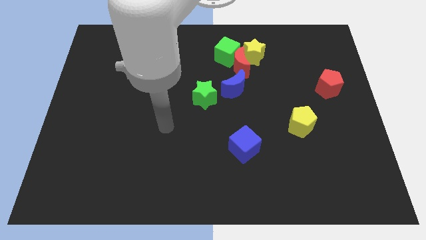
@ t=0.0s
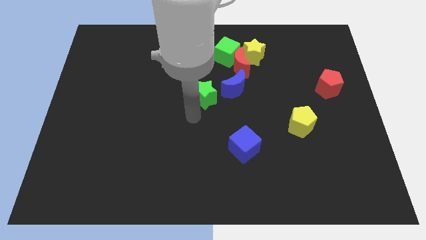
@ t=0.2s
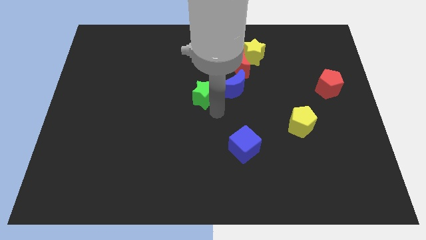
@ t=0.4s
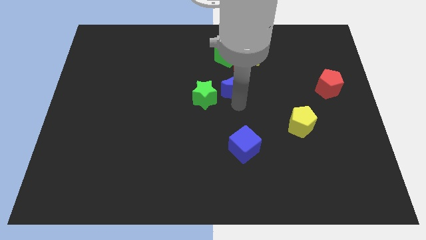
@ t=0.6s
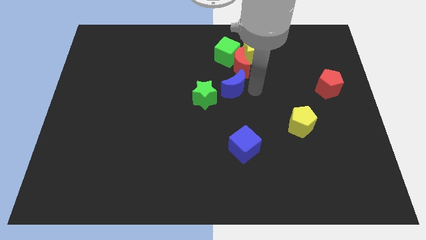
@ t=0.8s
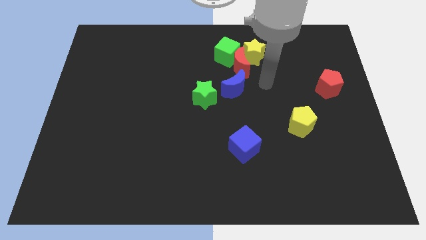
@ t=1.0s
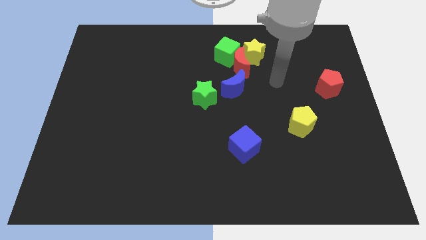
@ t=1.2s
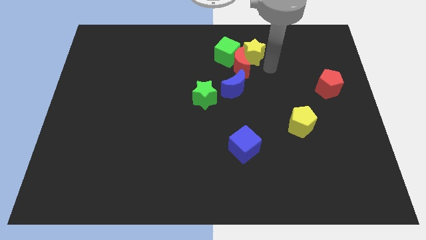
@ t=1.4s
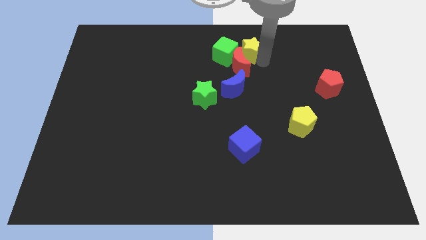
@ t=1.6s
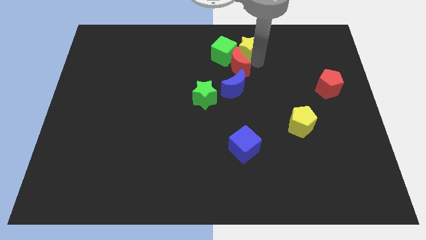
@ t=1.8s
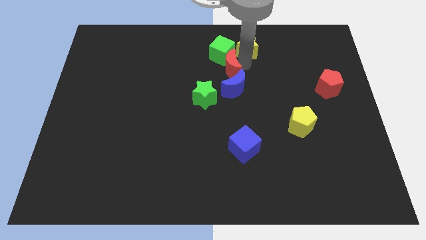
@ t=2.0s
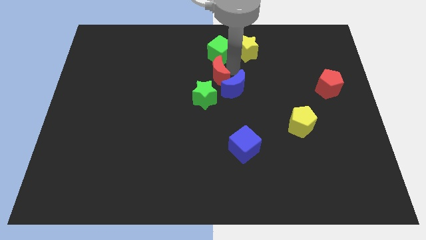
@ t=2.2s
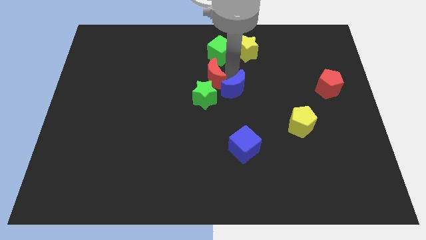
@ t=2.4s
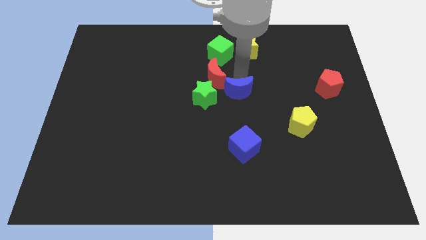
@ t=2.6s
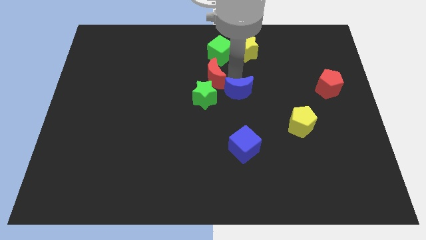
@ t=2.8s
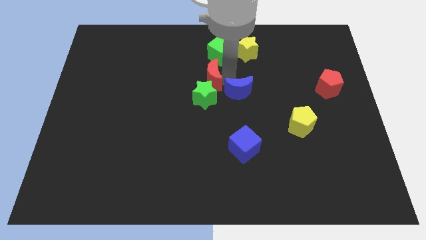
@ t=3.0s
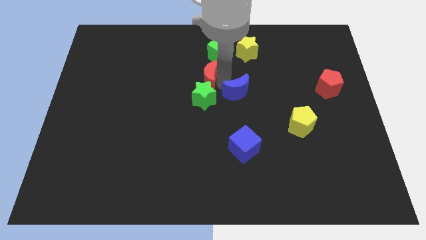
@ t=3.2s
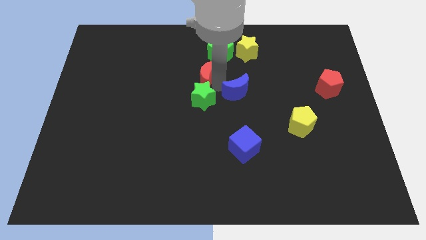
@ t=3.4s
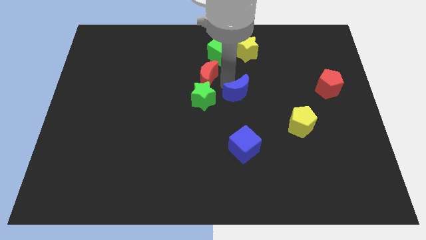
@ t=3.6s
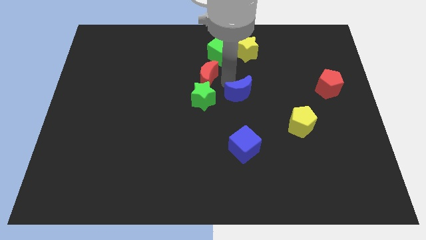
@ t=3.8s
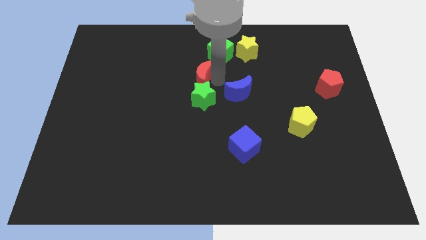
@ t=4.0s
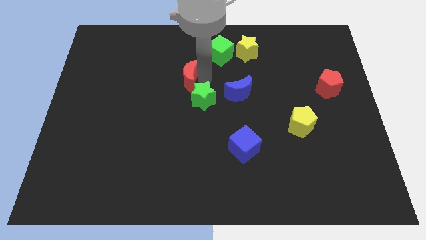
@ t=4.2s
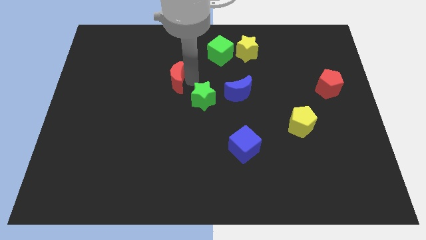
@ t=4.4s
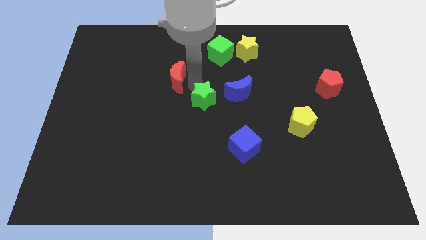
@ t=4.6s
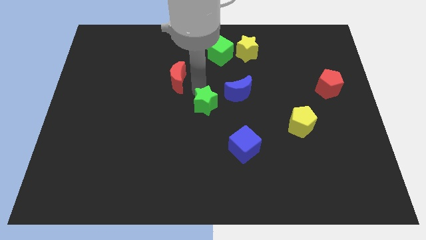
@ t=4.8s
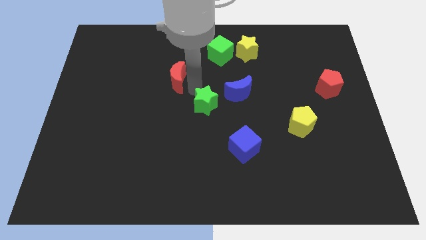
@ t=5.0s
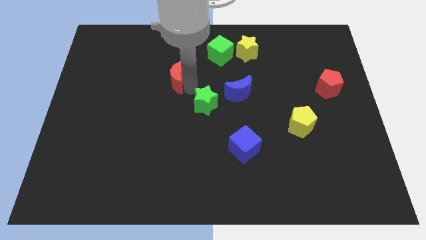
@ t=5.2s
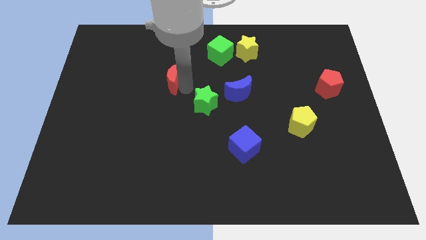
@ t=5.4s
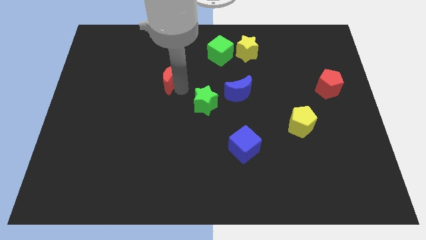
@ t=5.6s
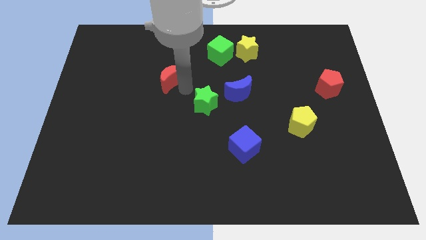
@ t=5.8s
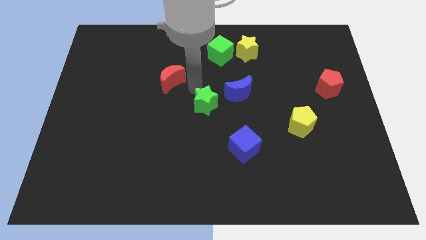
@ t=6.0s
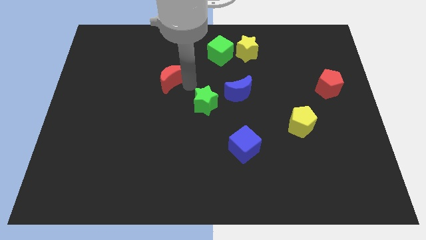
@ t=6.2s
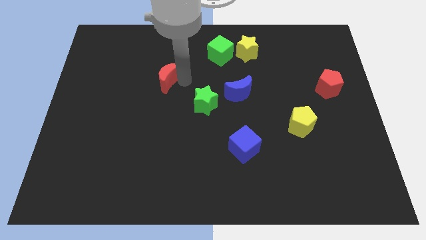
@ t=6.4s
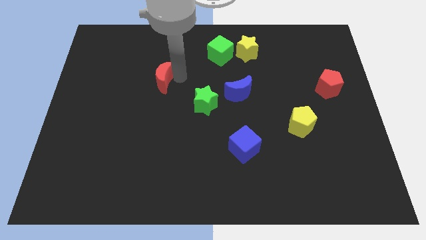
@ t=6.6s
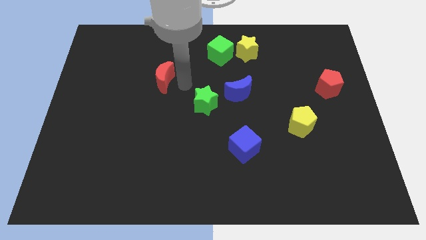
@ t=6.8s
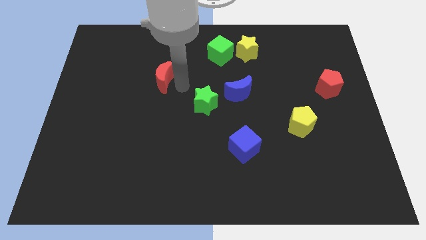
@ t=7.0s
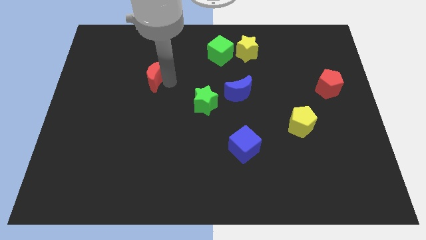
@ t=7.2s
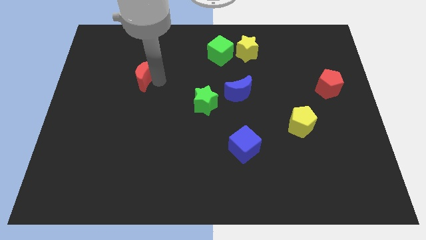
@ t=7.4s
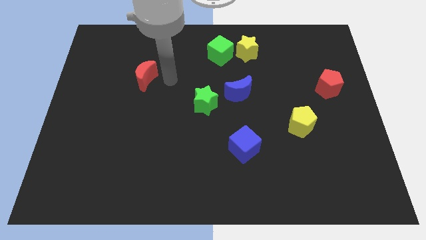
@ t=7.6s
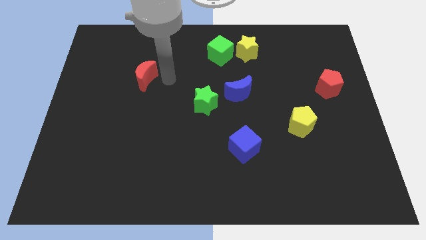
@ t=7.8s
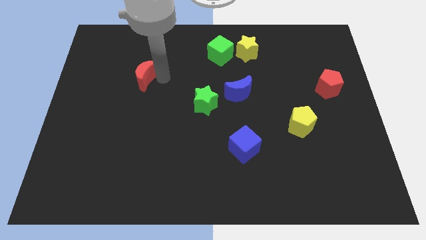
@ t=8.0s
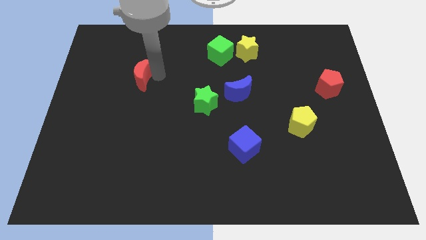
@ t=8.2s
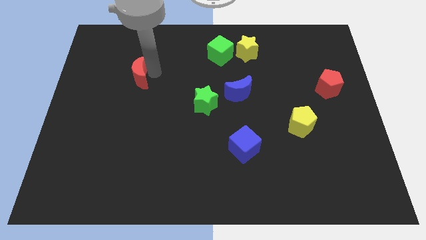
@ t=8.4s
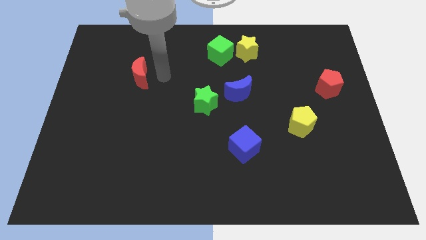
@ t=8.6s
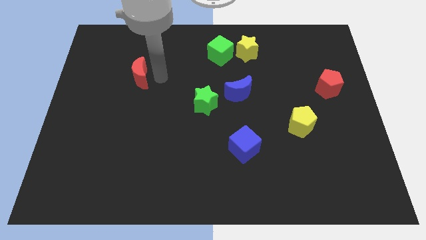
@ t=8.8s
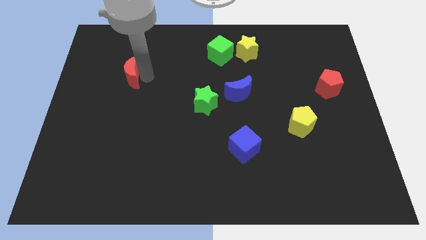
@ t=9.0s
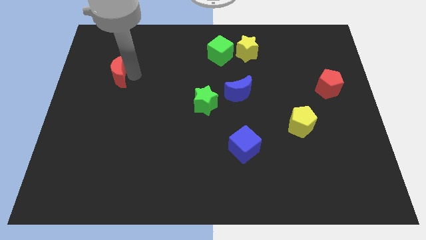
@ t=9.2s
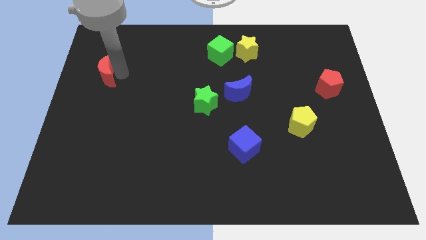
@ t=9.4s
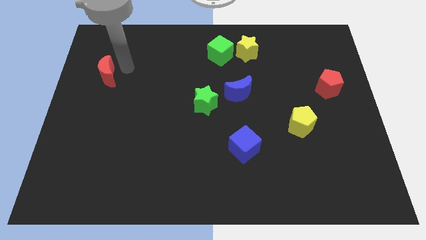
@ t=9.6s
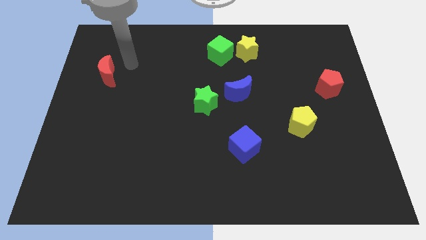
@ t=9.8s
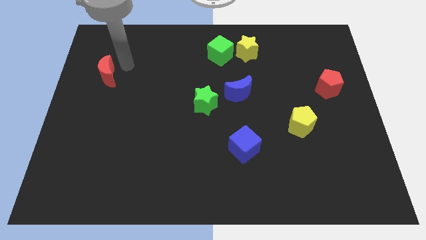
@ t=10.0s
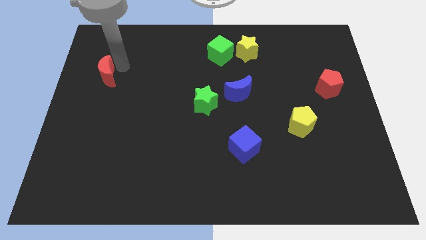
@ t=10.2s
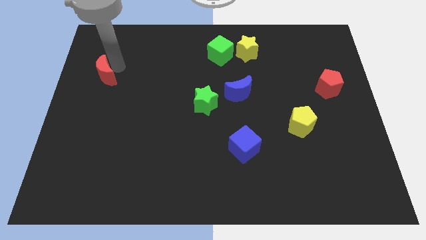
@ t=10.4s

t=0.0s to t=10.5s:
move the red moon to the center left

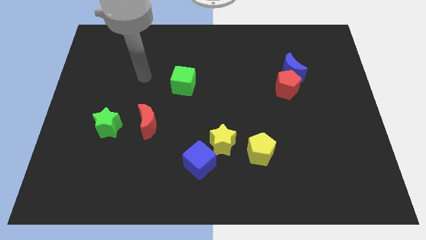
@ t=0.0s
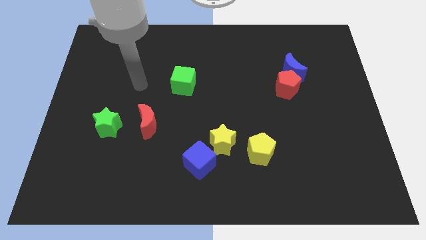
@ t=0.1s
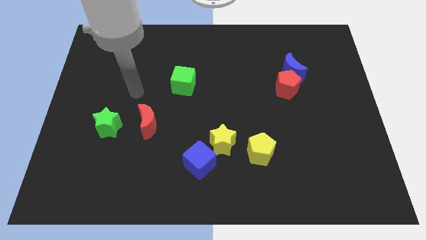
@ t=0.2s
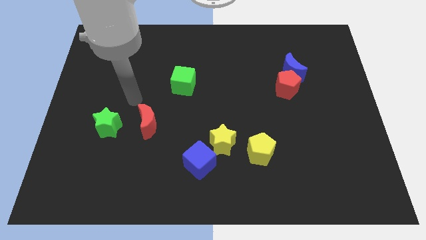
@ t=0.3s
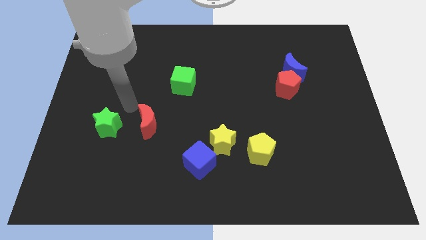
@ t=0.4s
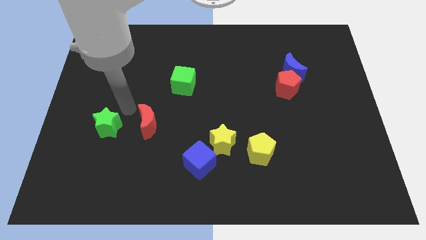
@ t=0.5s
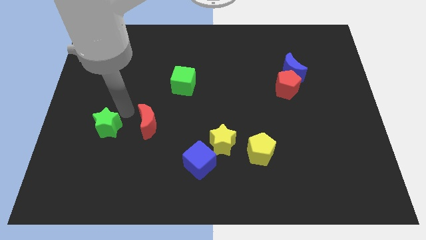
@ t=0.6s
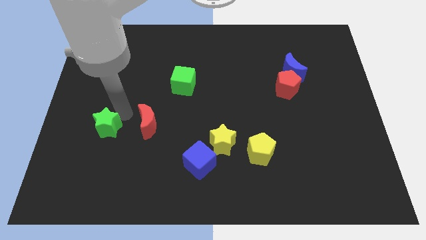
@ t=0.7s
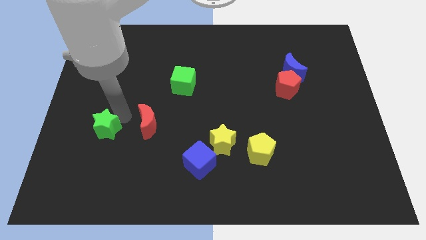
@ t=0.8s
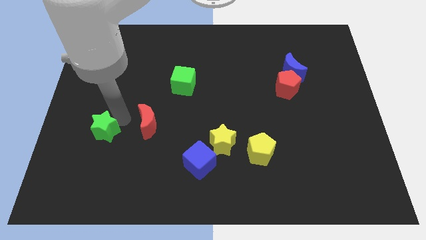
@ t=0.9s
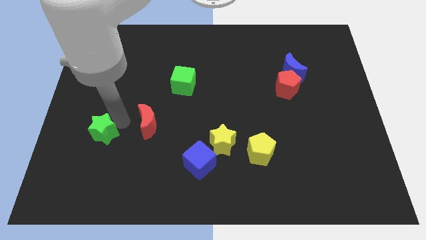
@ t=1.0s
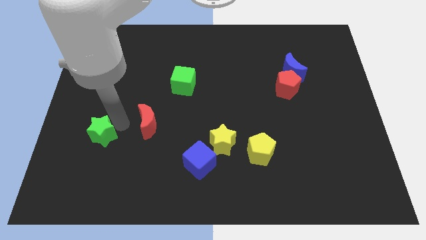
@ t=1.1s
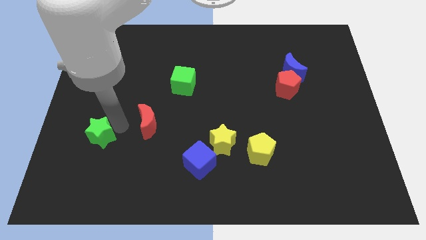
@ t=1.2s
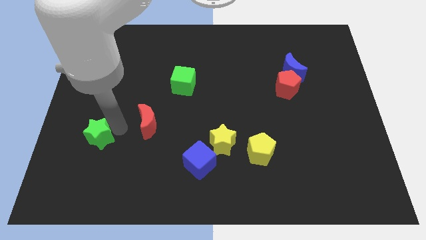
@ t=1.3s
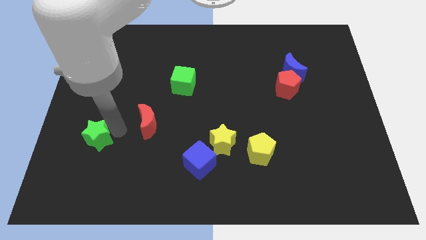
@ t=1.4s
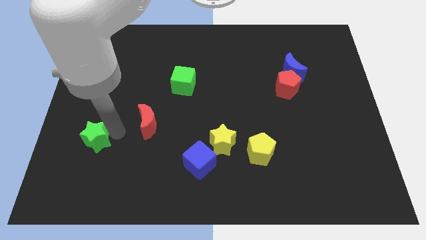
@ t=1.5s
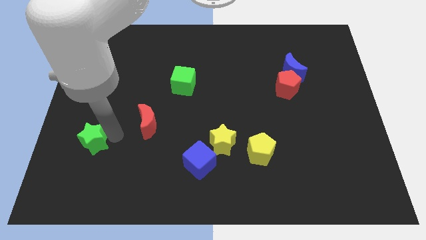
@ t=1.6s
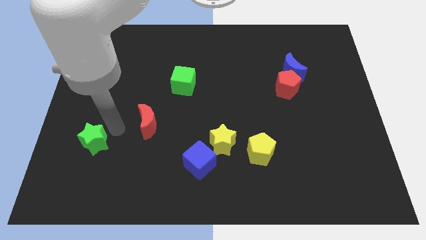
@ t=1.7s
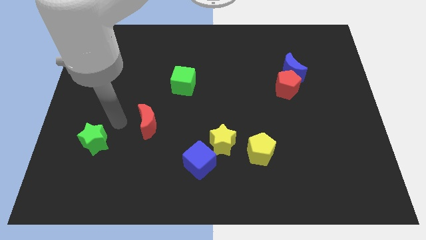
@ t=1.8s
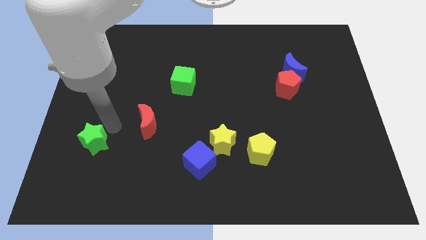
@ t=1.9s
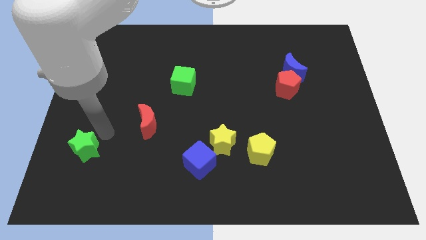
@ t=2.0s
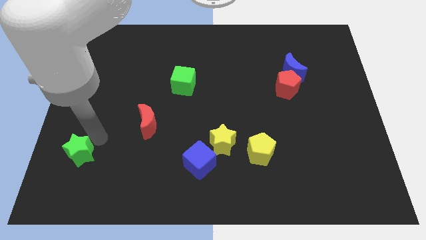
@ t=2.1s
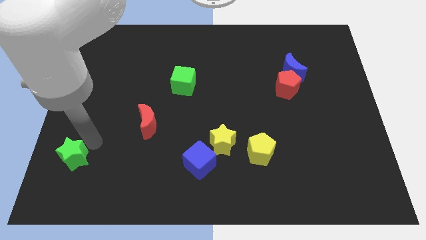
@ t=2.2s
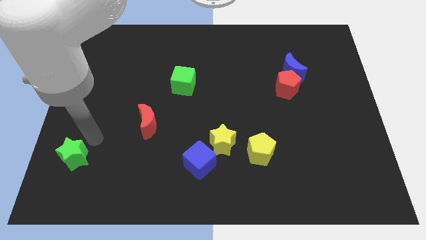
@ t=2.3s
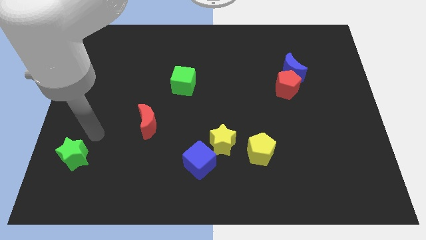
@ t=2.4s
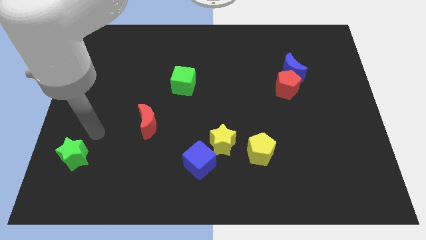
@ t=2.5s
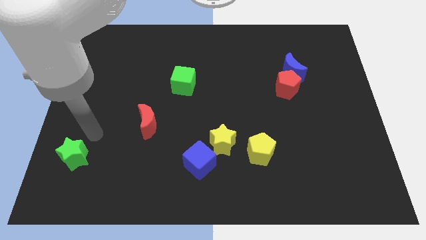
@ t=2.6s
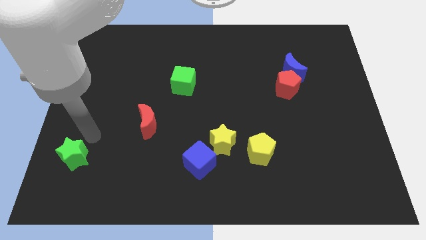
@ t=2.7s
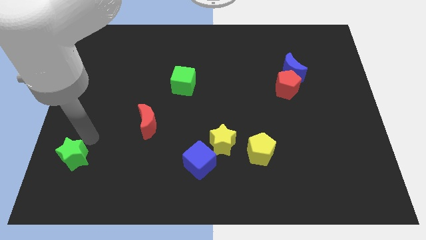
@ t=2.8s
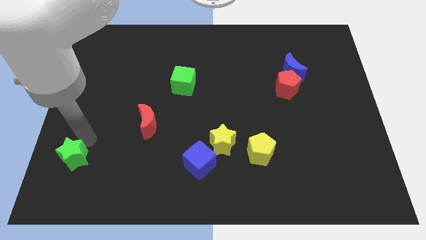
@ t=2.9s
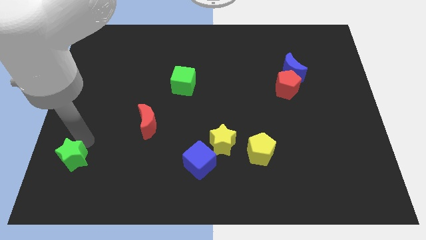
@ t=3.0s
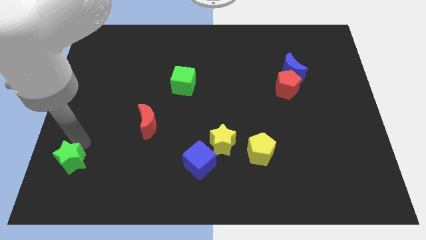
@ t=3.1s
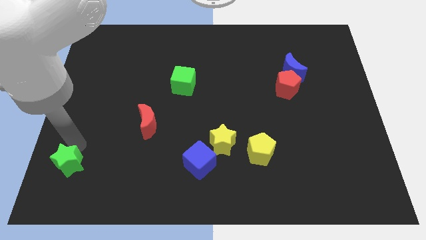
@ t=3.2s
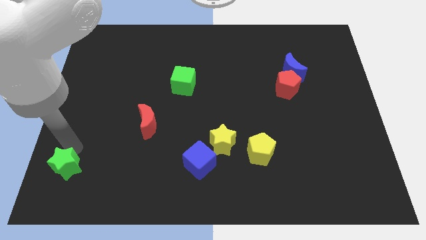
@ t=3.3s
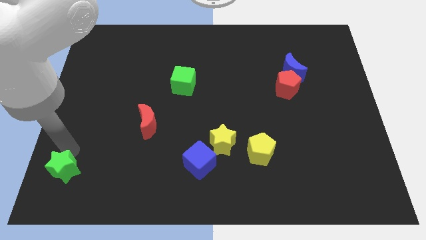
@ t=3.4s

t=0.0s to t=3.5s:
move the green star to the lower left corner
